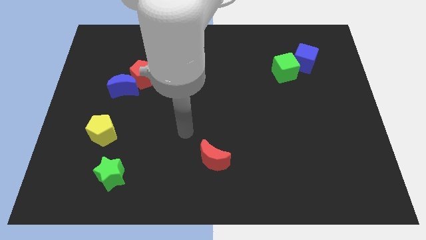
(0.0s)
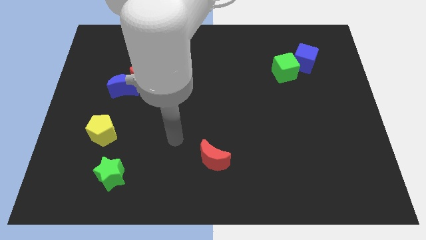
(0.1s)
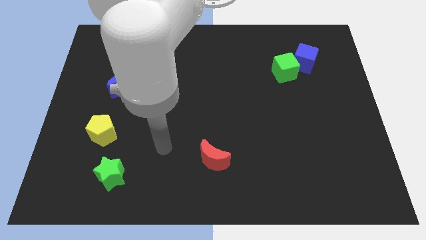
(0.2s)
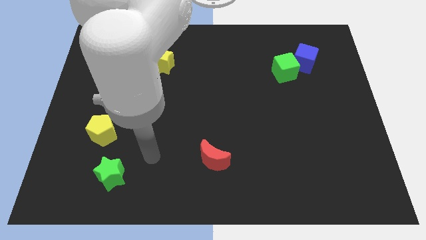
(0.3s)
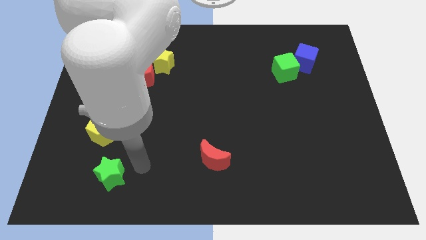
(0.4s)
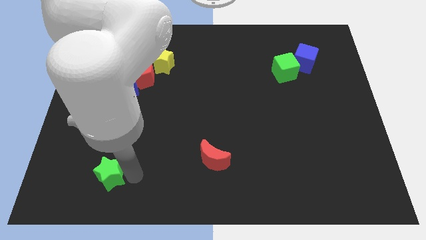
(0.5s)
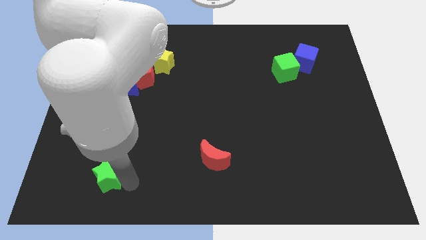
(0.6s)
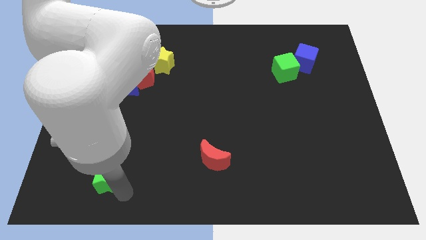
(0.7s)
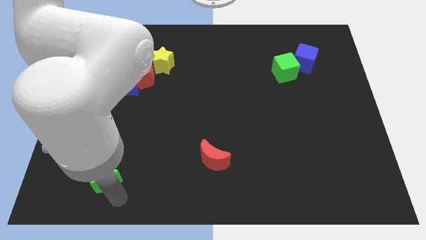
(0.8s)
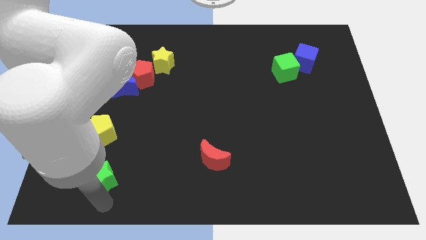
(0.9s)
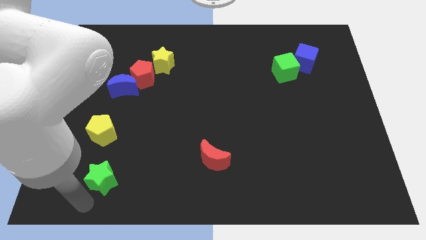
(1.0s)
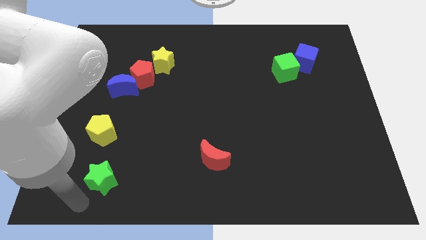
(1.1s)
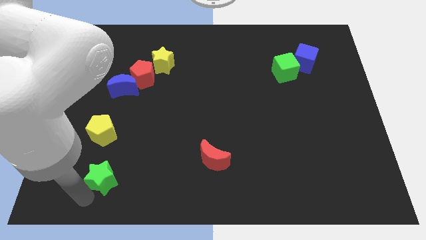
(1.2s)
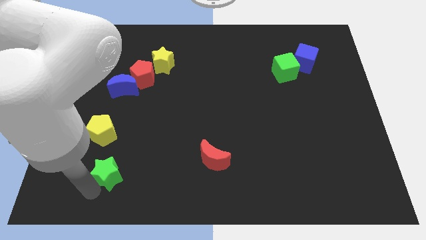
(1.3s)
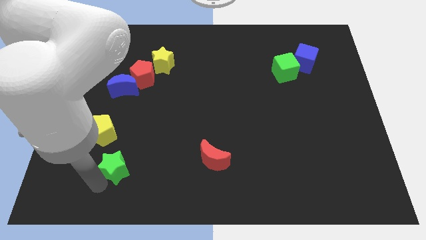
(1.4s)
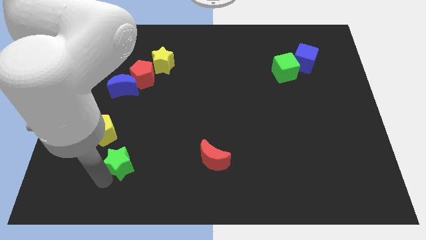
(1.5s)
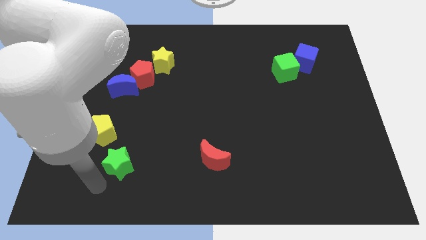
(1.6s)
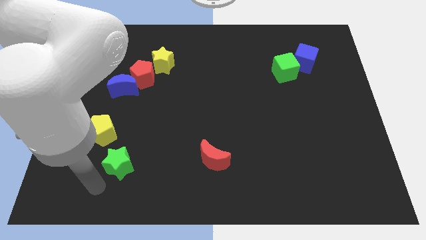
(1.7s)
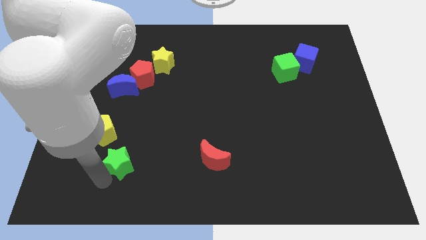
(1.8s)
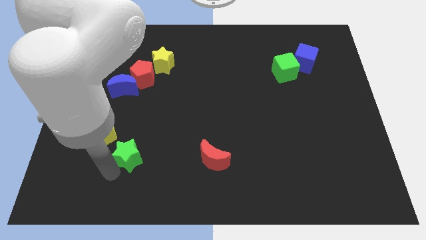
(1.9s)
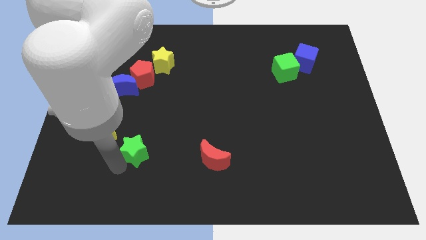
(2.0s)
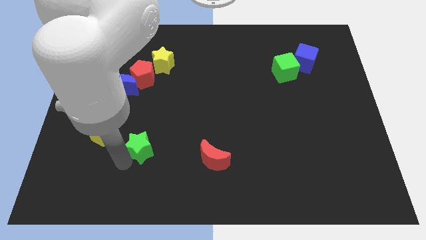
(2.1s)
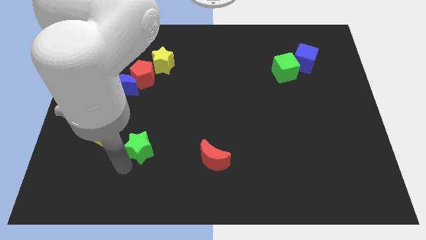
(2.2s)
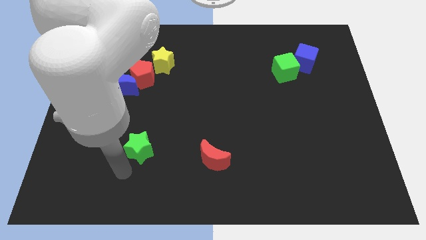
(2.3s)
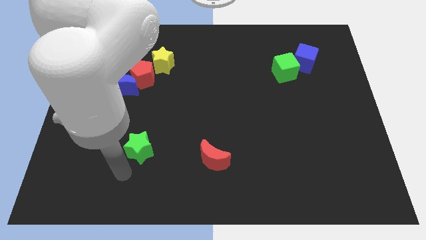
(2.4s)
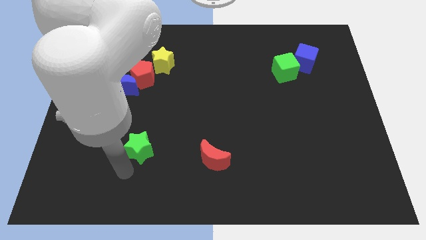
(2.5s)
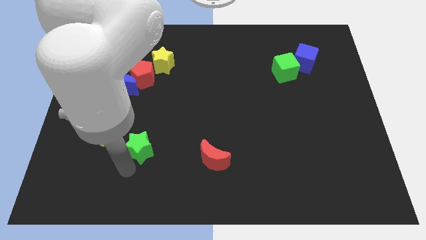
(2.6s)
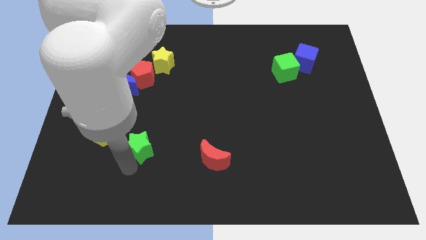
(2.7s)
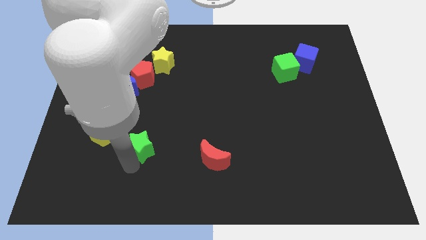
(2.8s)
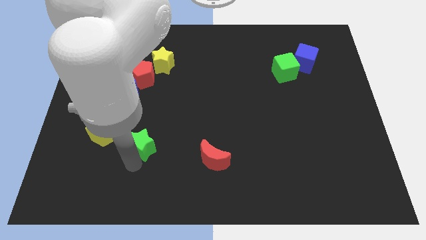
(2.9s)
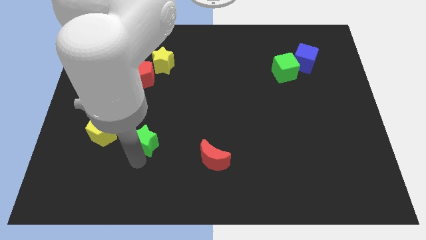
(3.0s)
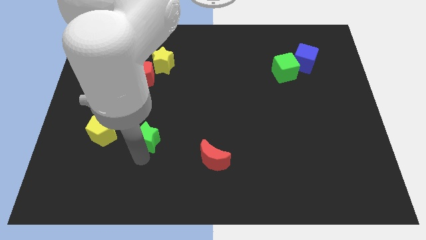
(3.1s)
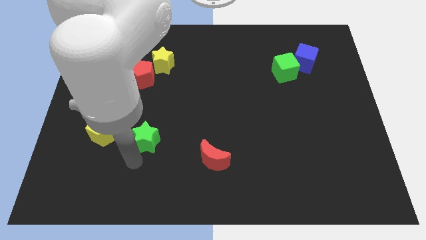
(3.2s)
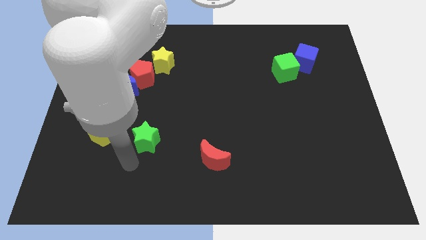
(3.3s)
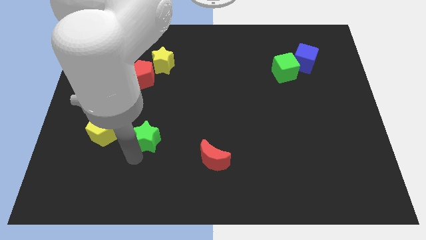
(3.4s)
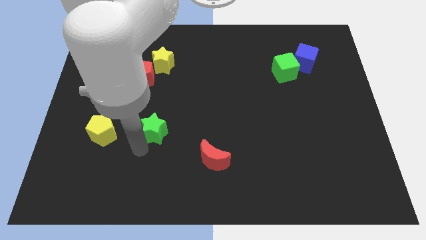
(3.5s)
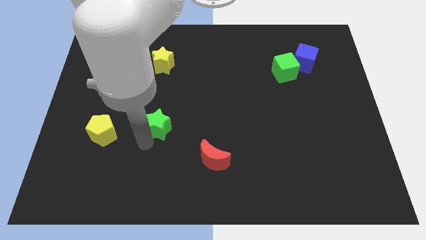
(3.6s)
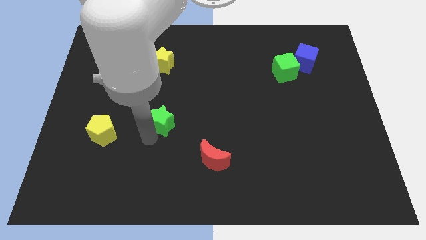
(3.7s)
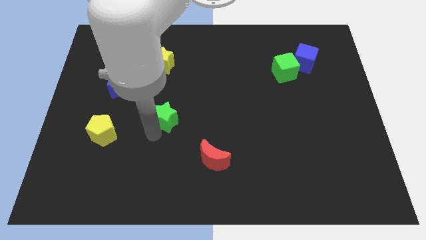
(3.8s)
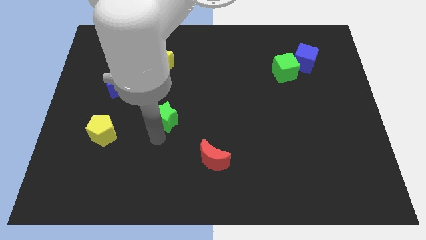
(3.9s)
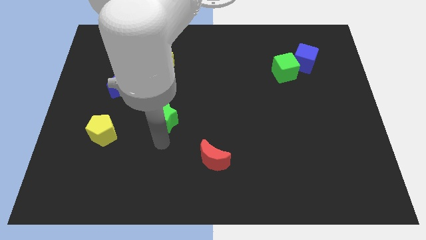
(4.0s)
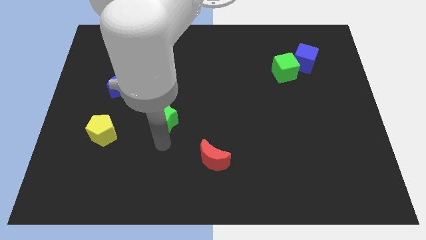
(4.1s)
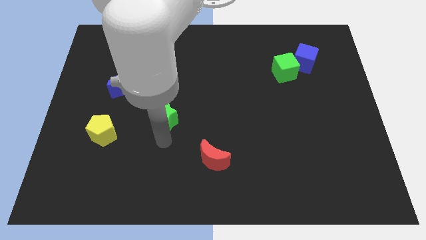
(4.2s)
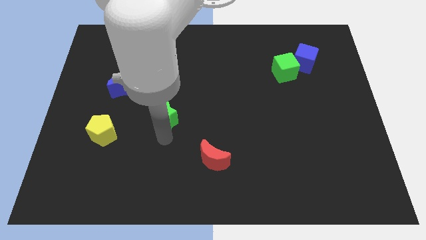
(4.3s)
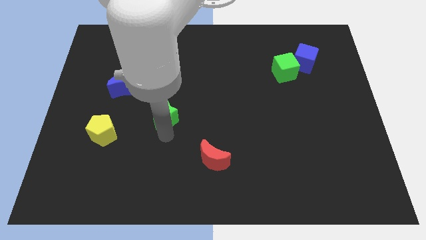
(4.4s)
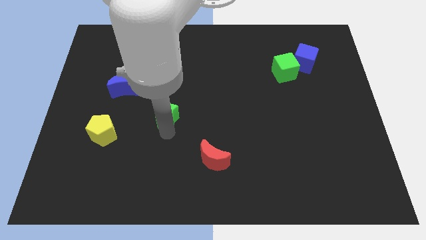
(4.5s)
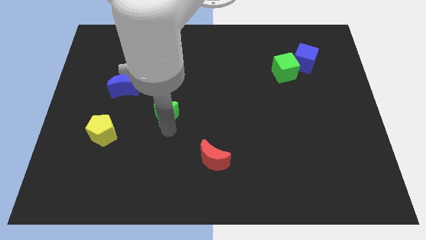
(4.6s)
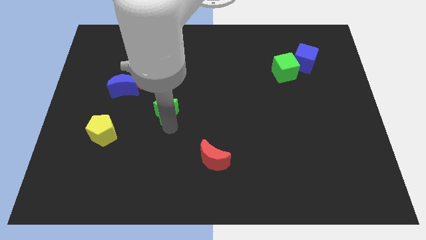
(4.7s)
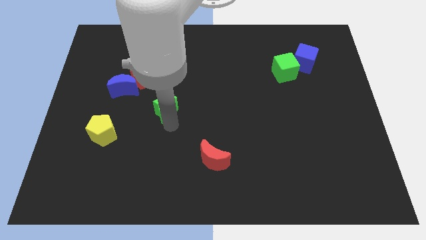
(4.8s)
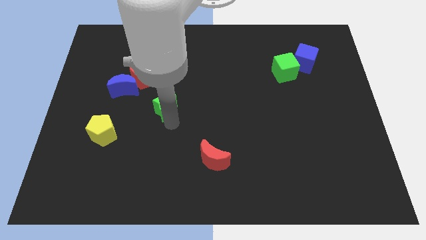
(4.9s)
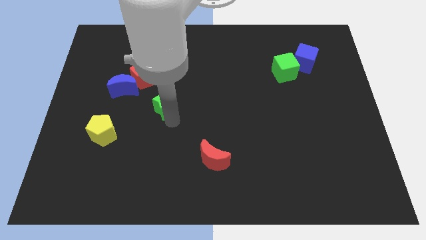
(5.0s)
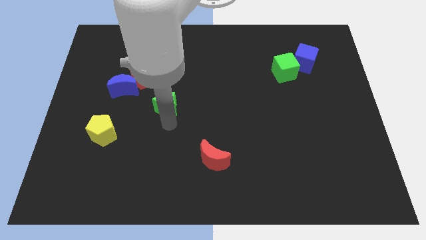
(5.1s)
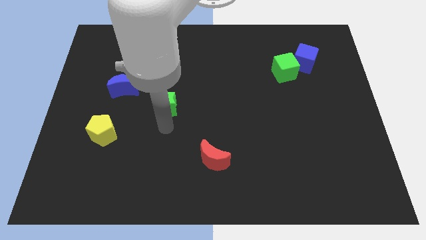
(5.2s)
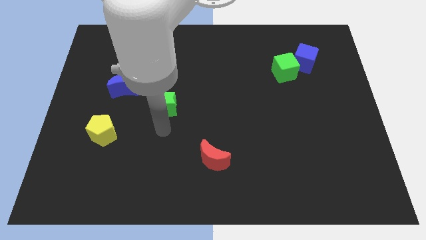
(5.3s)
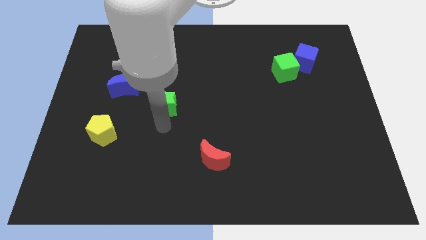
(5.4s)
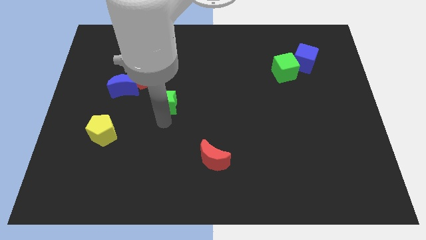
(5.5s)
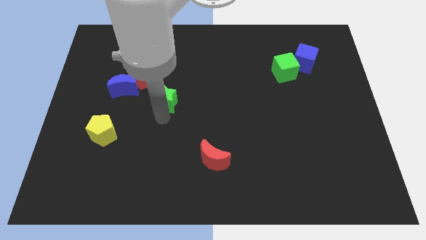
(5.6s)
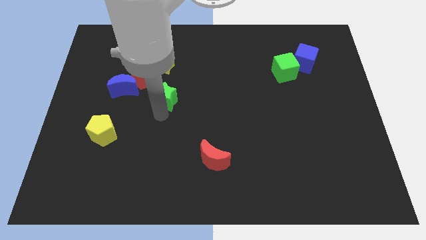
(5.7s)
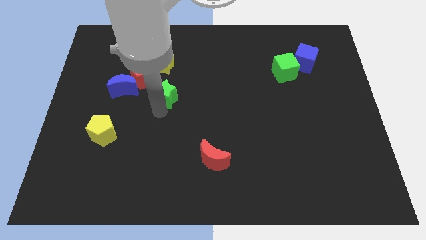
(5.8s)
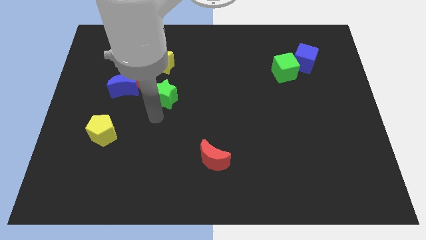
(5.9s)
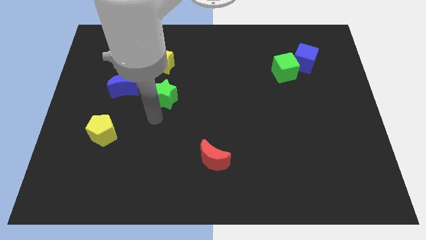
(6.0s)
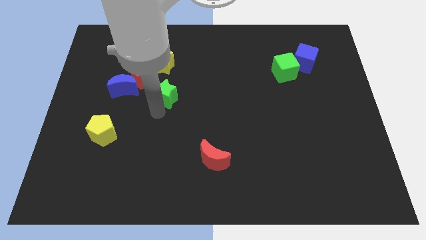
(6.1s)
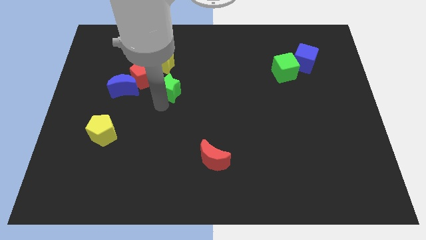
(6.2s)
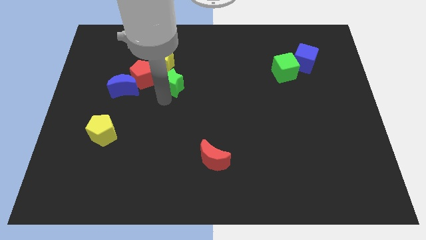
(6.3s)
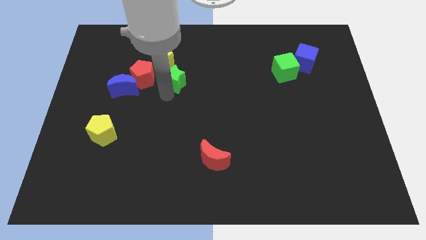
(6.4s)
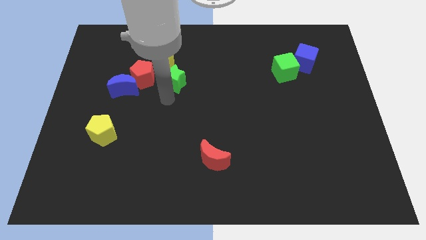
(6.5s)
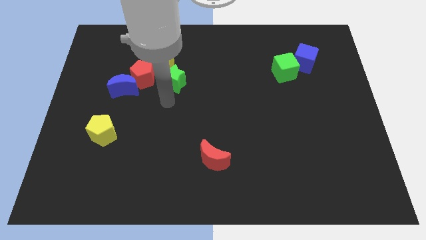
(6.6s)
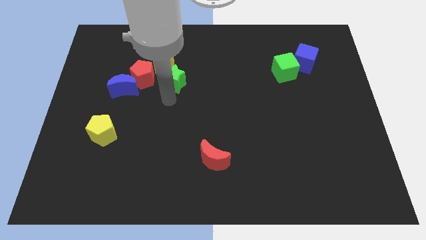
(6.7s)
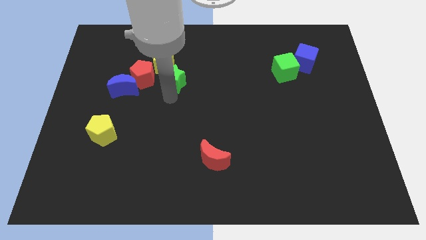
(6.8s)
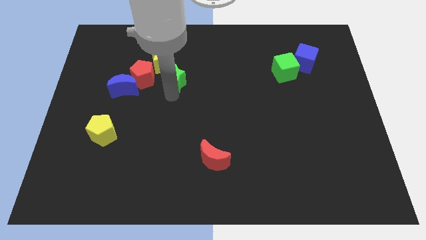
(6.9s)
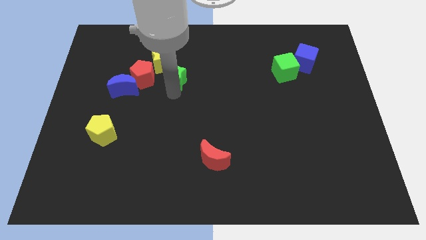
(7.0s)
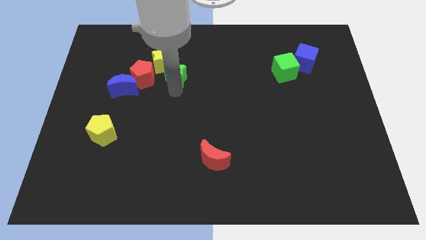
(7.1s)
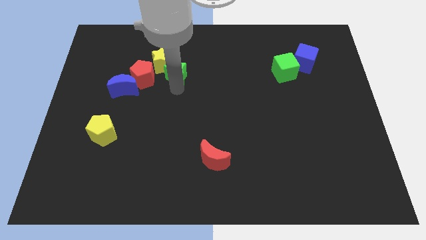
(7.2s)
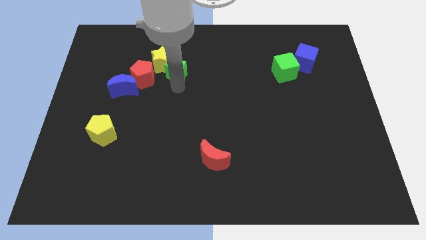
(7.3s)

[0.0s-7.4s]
push the green star diagonally up and to the right of the red pentagon
